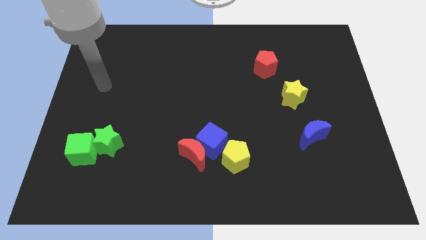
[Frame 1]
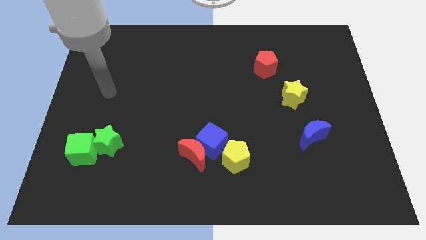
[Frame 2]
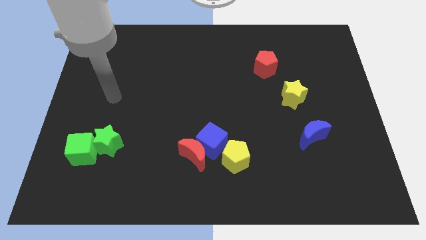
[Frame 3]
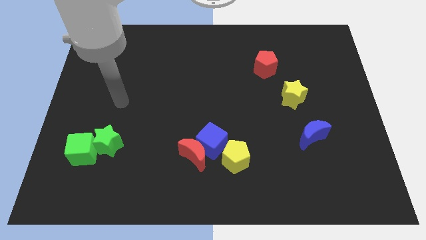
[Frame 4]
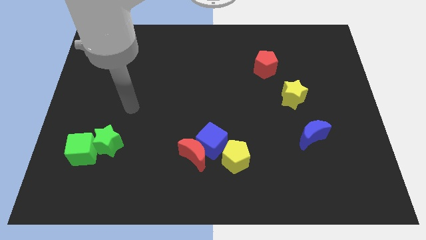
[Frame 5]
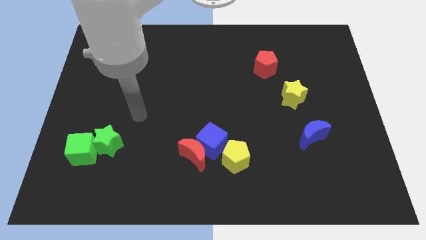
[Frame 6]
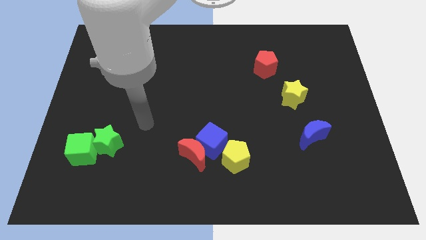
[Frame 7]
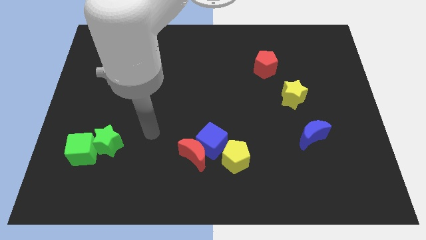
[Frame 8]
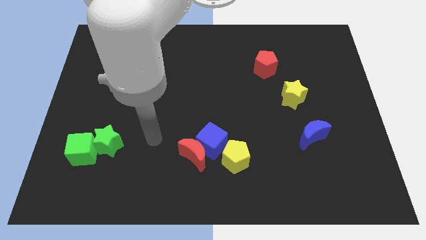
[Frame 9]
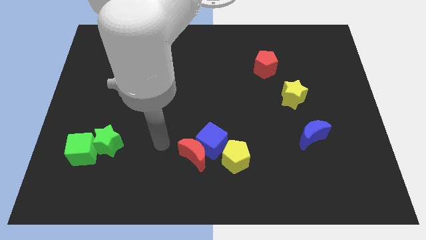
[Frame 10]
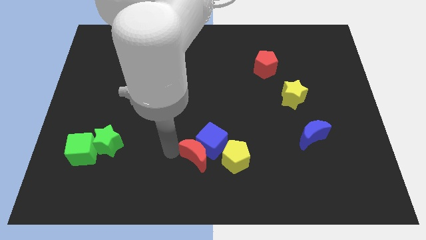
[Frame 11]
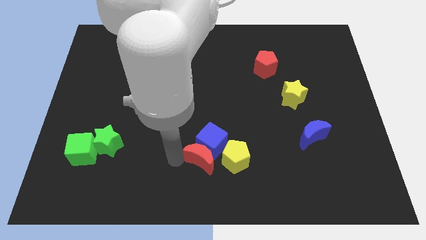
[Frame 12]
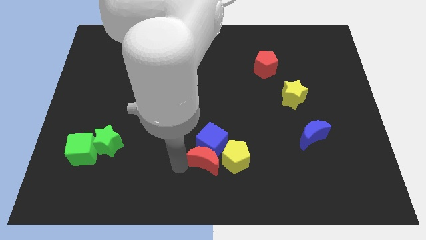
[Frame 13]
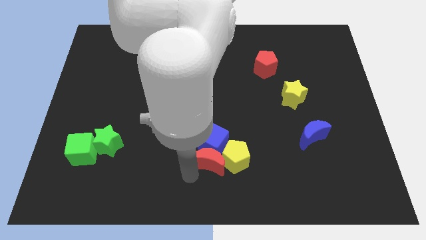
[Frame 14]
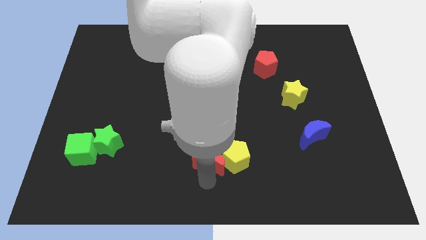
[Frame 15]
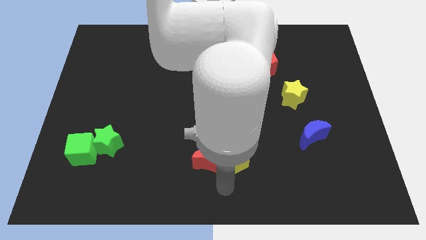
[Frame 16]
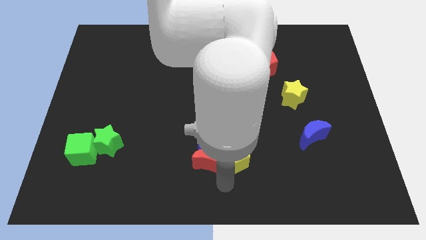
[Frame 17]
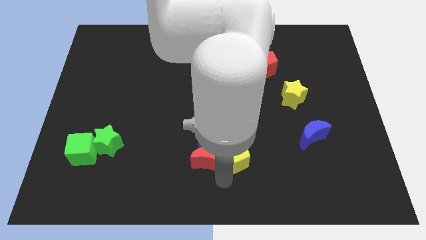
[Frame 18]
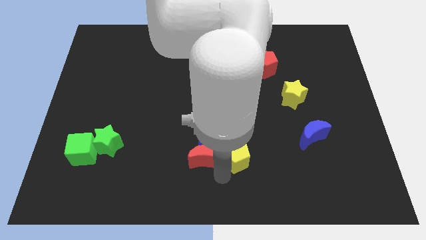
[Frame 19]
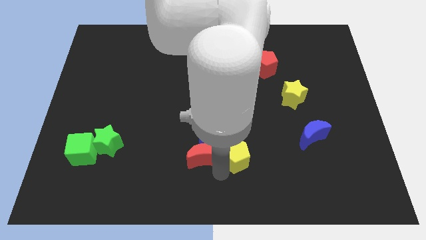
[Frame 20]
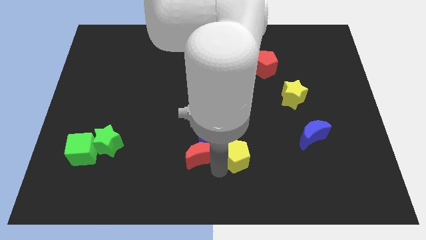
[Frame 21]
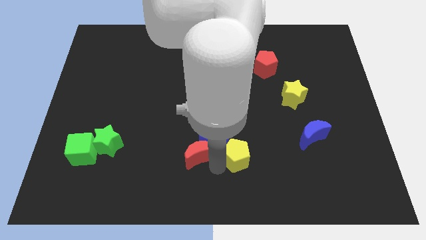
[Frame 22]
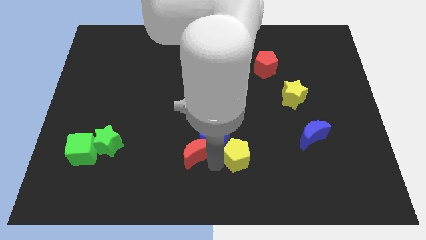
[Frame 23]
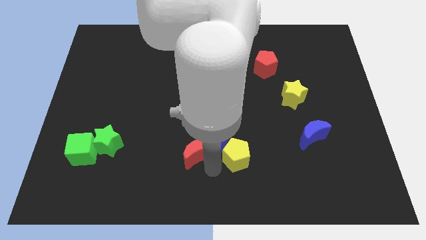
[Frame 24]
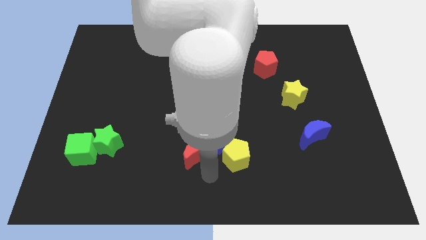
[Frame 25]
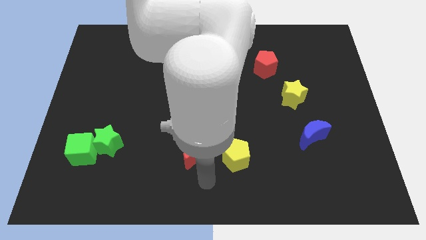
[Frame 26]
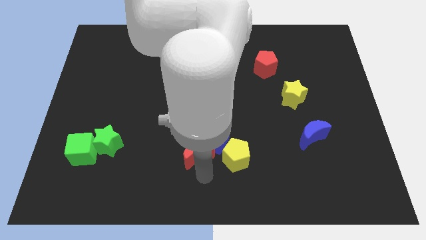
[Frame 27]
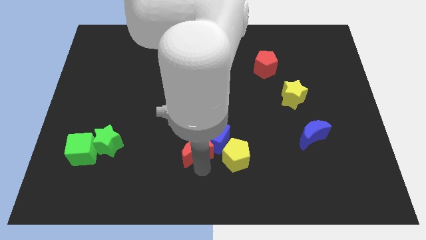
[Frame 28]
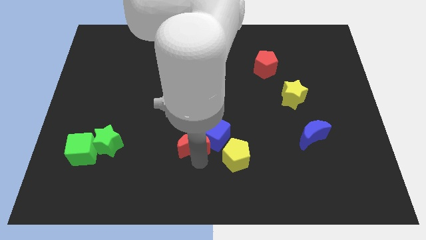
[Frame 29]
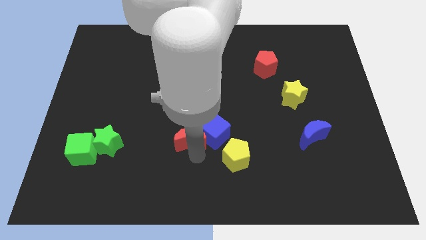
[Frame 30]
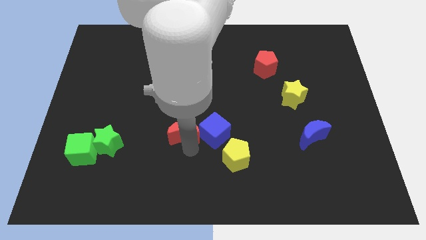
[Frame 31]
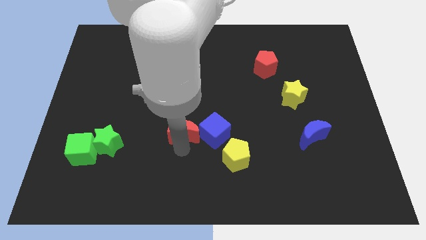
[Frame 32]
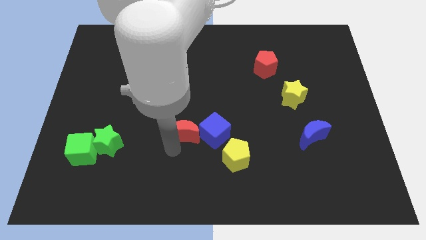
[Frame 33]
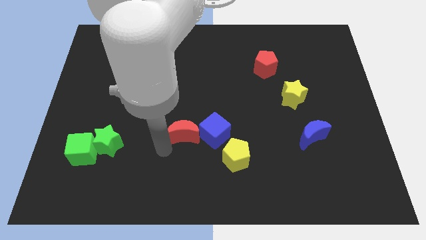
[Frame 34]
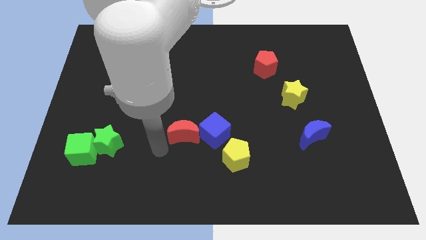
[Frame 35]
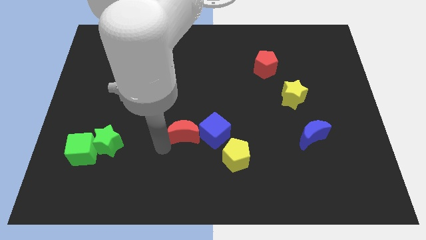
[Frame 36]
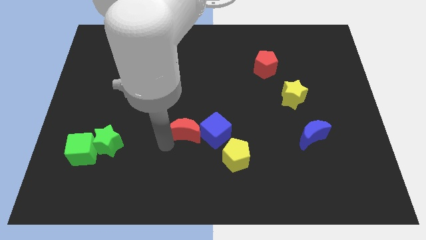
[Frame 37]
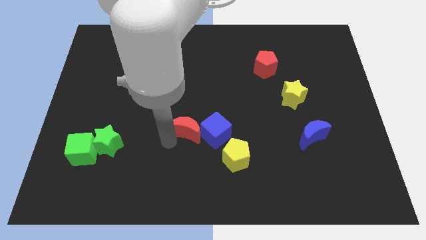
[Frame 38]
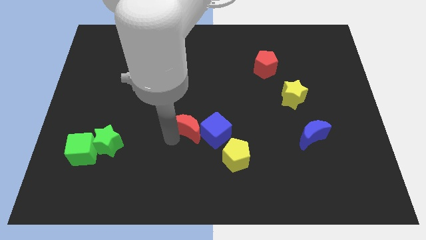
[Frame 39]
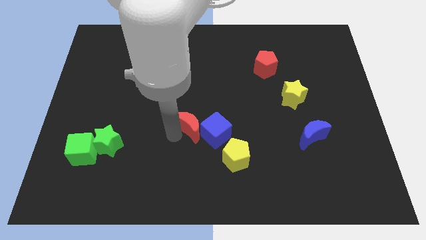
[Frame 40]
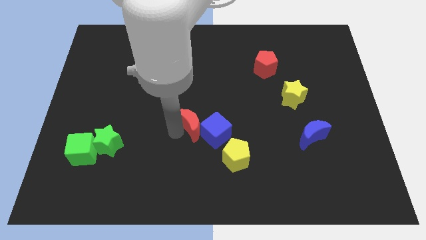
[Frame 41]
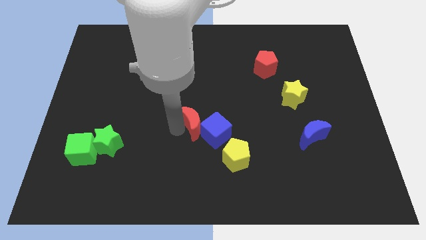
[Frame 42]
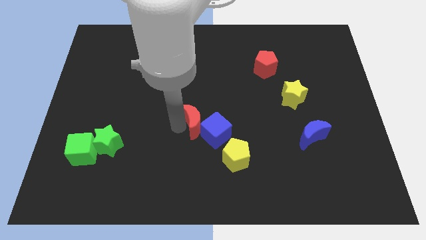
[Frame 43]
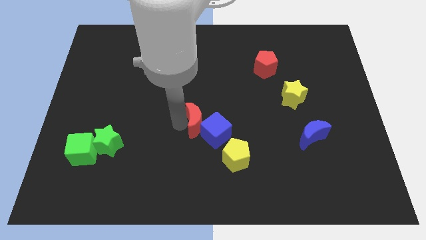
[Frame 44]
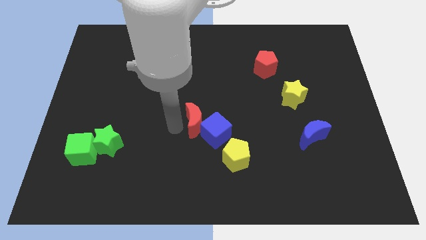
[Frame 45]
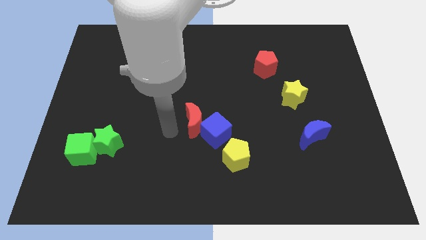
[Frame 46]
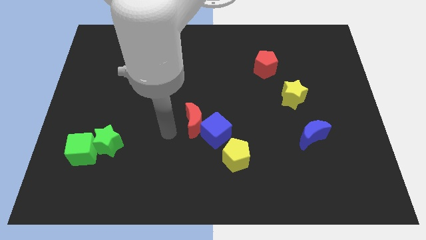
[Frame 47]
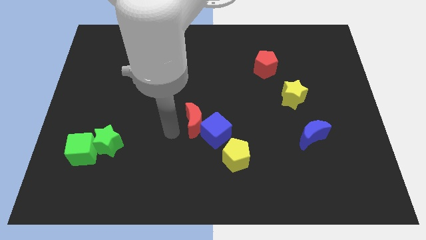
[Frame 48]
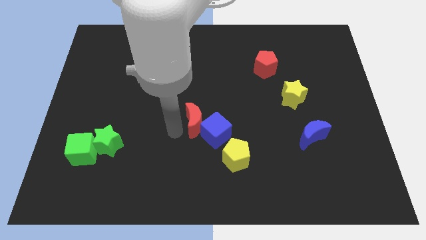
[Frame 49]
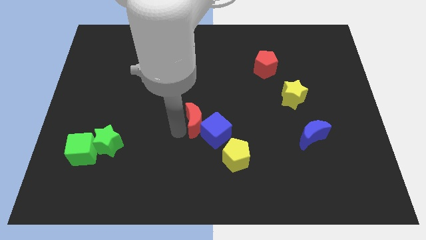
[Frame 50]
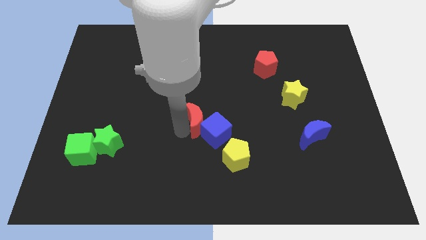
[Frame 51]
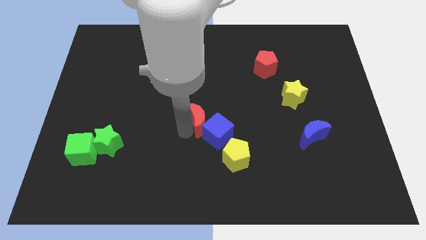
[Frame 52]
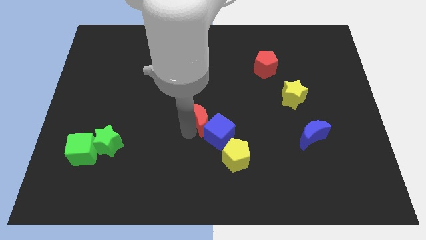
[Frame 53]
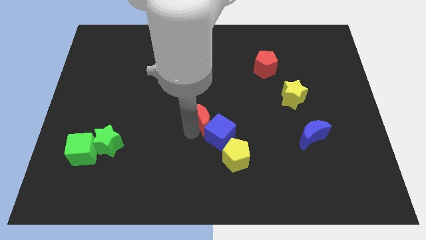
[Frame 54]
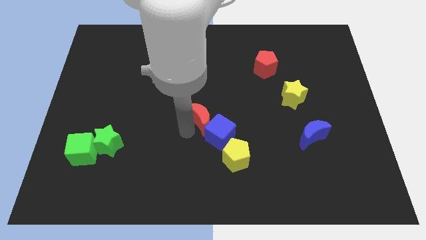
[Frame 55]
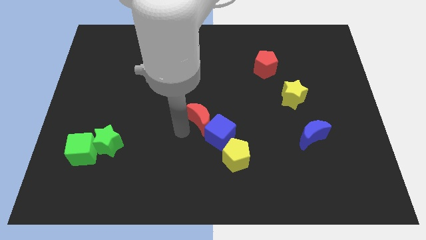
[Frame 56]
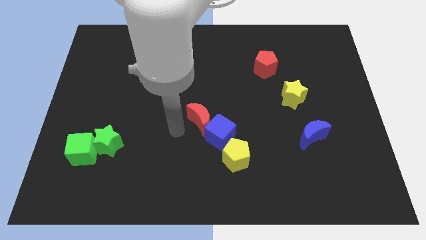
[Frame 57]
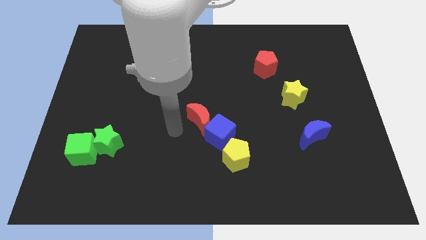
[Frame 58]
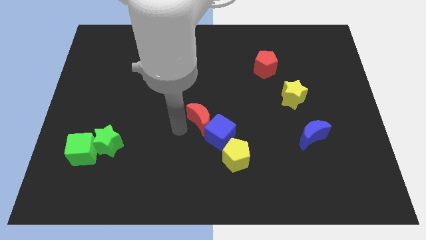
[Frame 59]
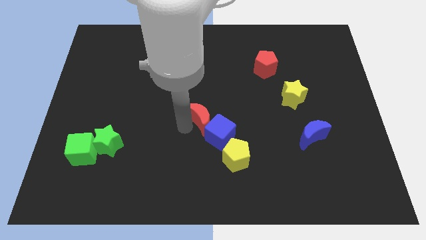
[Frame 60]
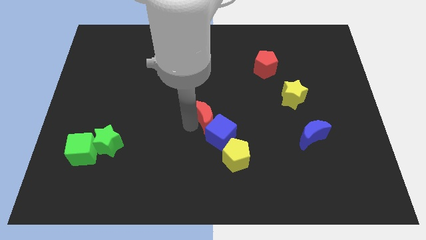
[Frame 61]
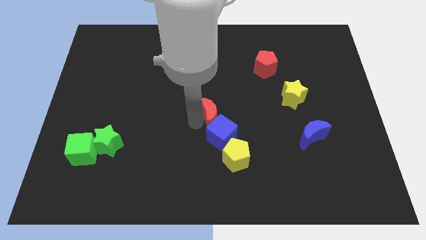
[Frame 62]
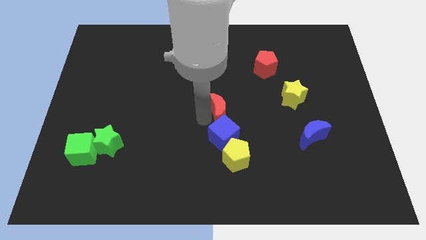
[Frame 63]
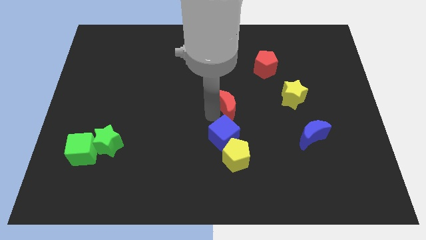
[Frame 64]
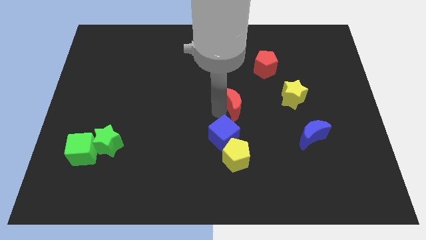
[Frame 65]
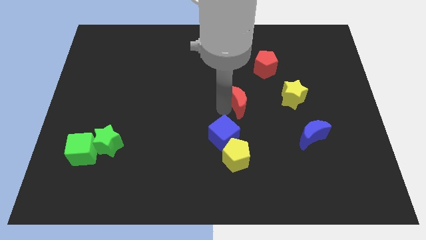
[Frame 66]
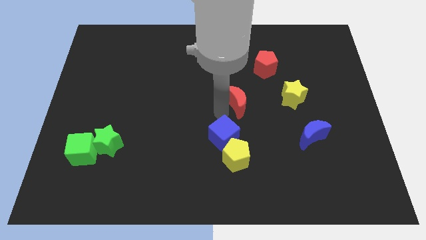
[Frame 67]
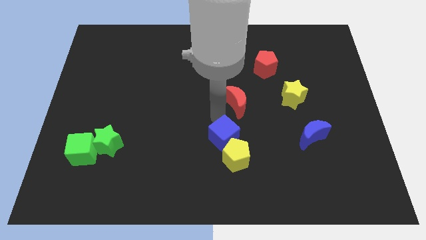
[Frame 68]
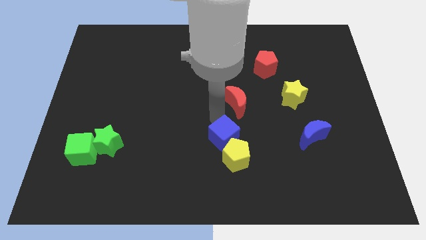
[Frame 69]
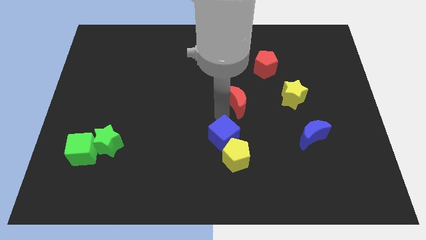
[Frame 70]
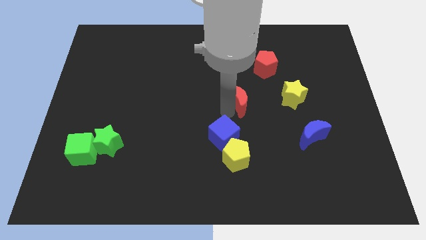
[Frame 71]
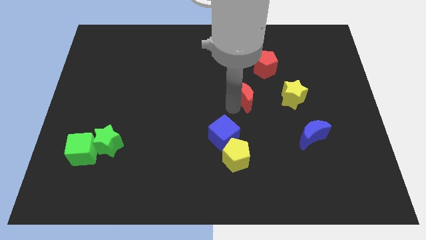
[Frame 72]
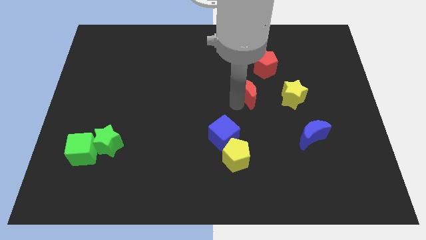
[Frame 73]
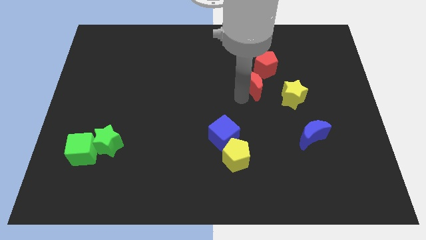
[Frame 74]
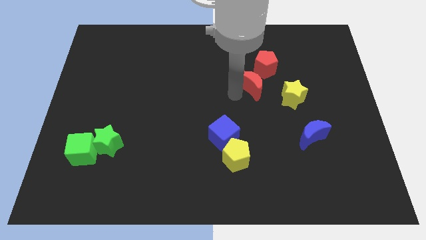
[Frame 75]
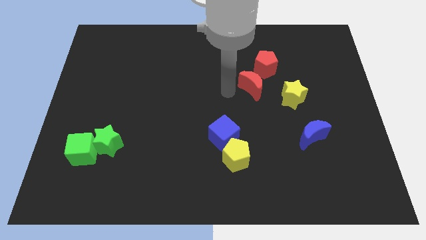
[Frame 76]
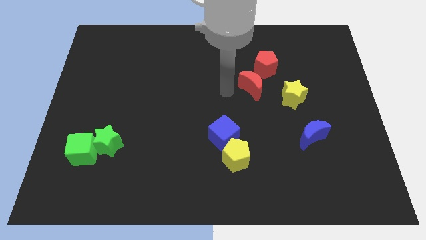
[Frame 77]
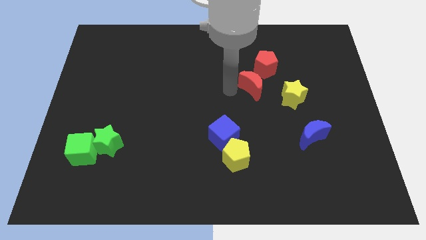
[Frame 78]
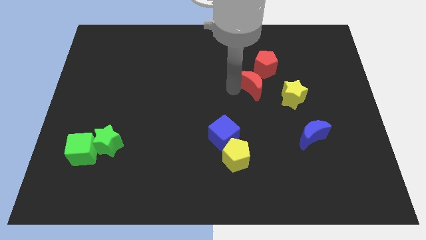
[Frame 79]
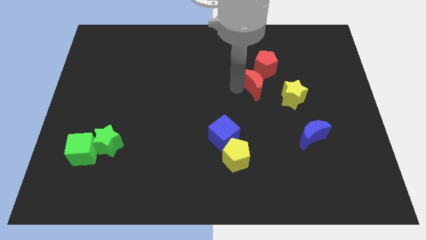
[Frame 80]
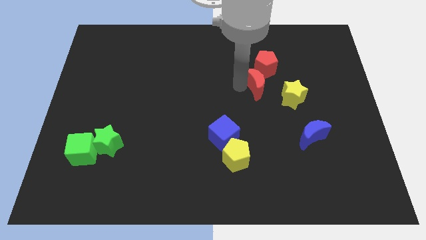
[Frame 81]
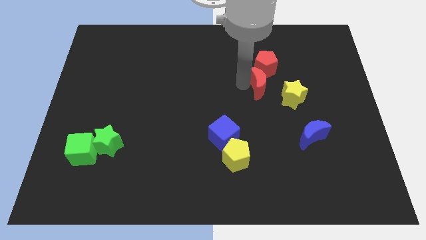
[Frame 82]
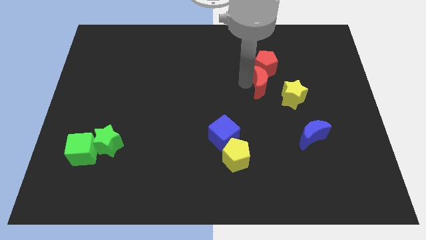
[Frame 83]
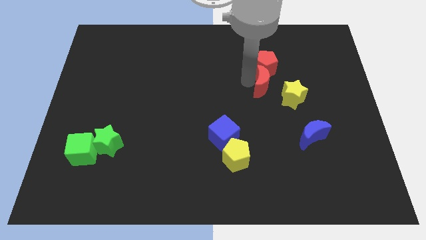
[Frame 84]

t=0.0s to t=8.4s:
slide the red moon to the bottom right of the red pentagon
